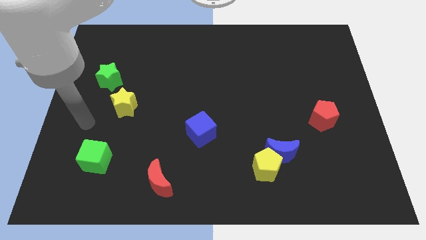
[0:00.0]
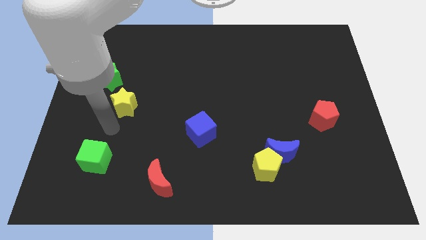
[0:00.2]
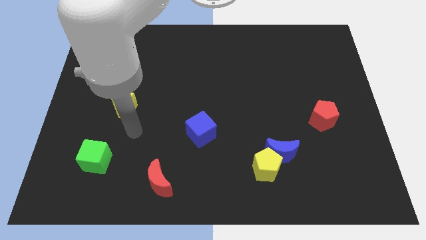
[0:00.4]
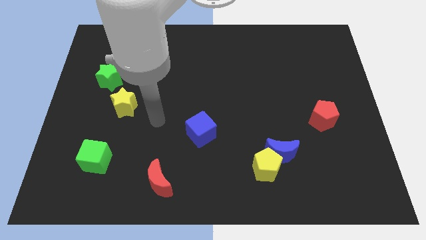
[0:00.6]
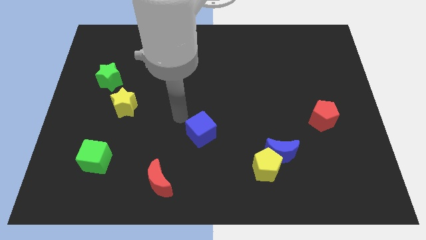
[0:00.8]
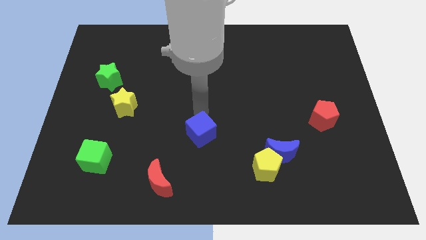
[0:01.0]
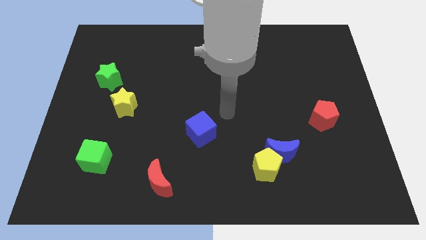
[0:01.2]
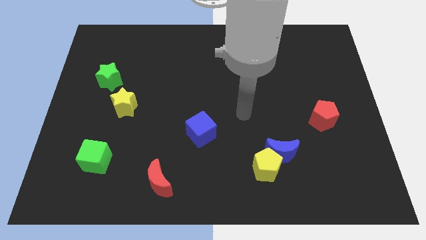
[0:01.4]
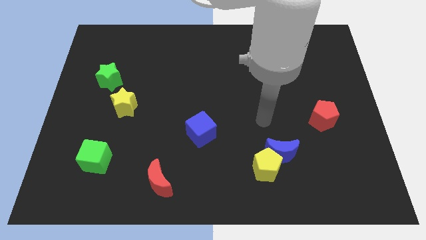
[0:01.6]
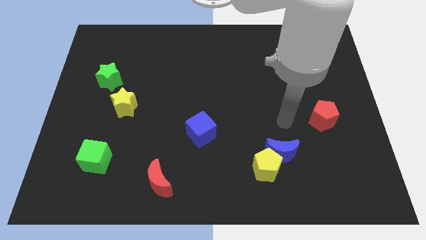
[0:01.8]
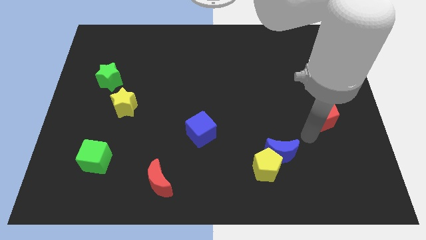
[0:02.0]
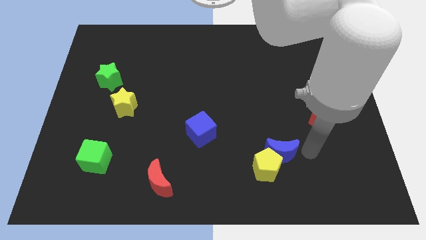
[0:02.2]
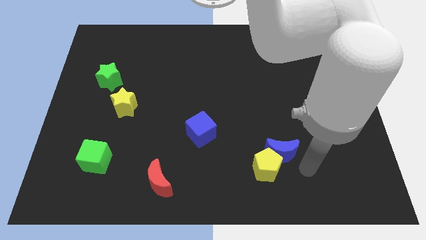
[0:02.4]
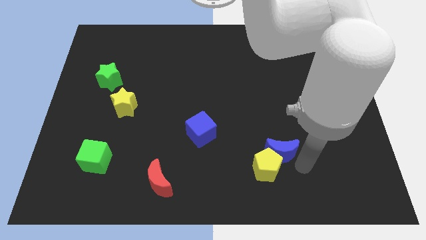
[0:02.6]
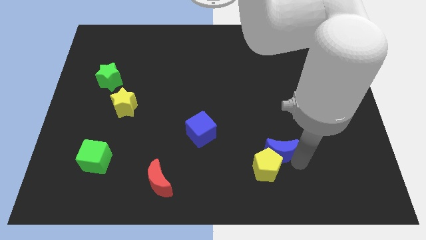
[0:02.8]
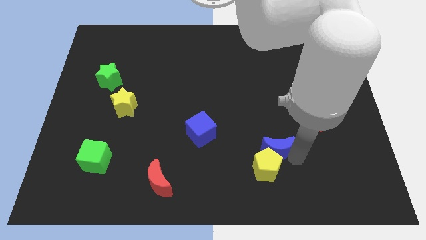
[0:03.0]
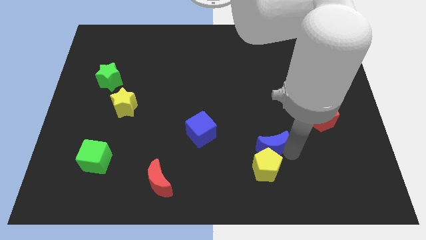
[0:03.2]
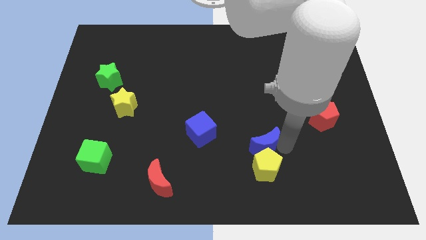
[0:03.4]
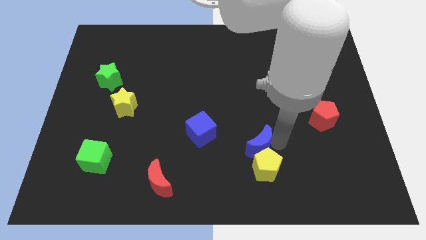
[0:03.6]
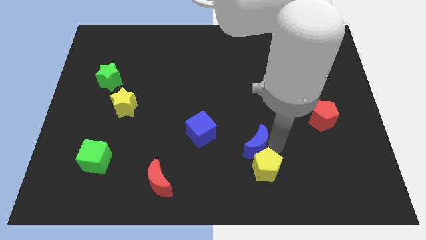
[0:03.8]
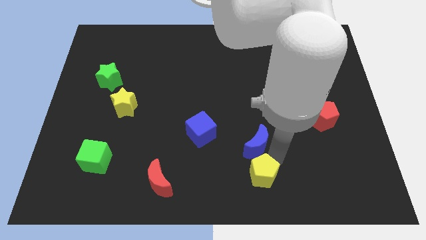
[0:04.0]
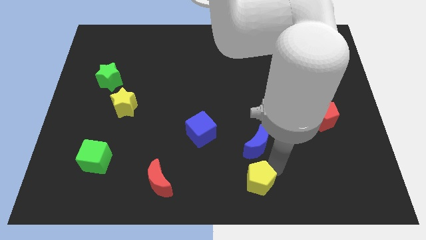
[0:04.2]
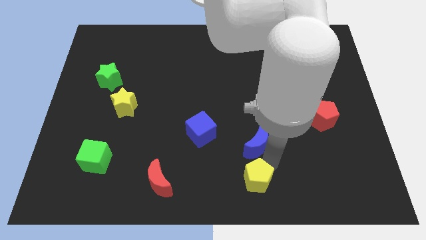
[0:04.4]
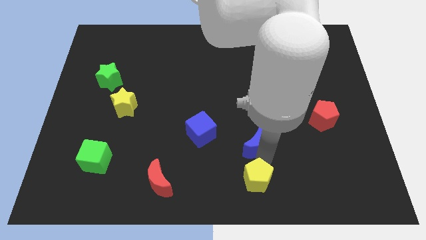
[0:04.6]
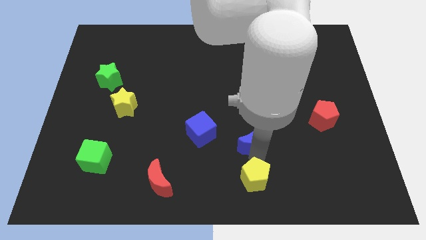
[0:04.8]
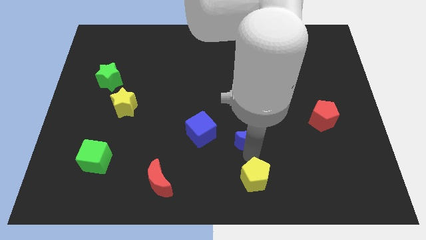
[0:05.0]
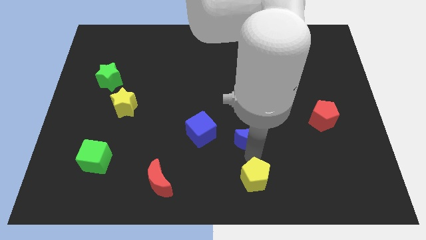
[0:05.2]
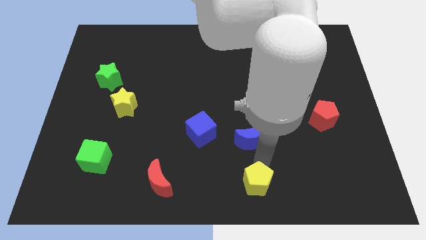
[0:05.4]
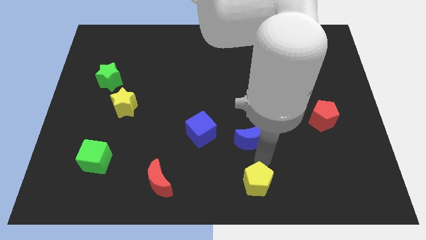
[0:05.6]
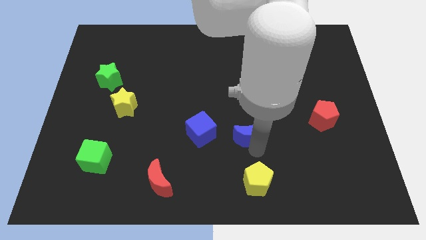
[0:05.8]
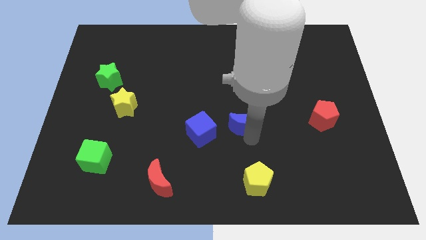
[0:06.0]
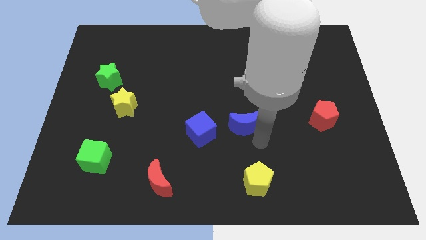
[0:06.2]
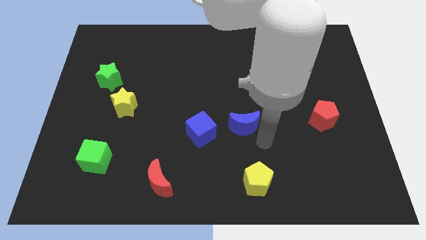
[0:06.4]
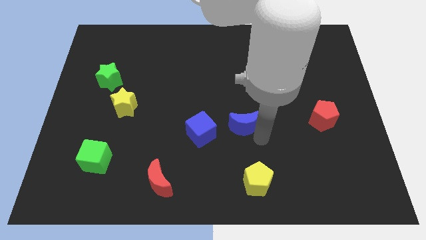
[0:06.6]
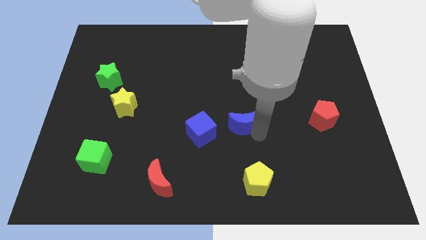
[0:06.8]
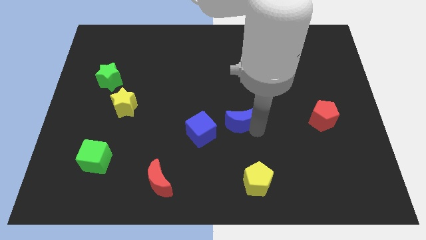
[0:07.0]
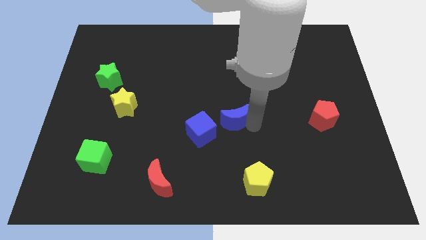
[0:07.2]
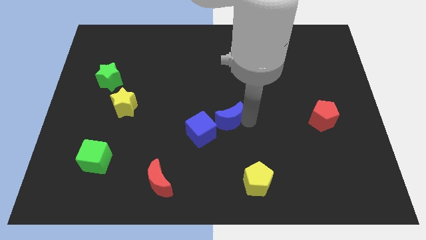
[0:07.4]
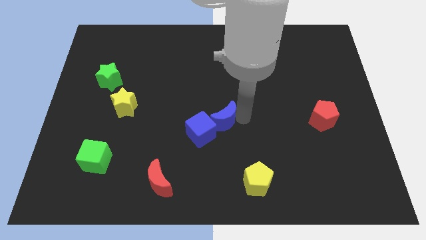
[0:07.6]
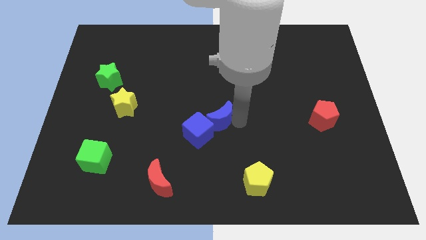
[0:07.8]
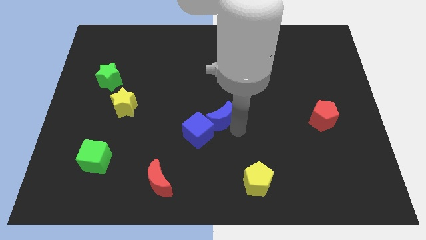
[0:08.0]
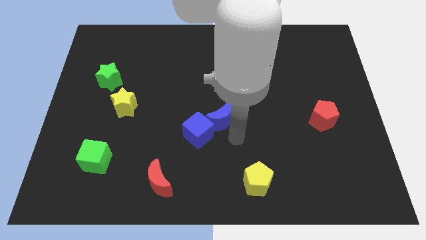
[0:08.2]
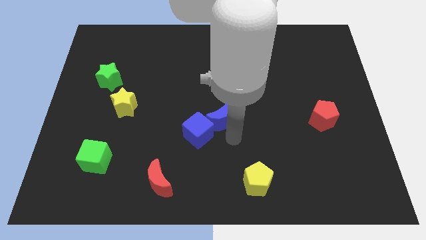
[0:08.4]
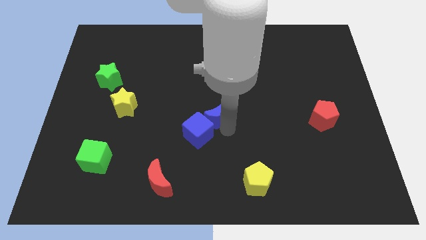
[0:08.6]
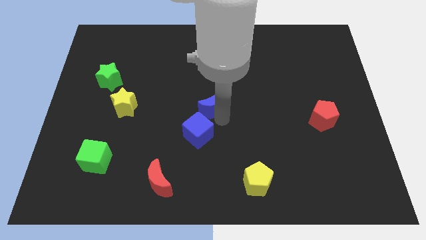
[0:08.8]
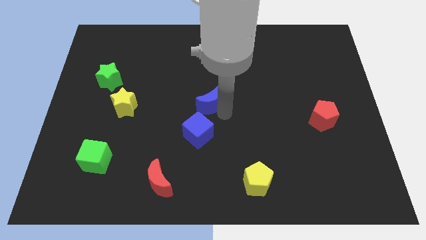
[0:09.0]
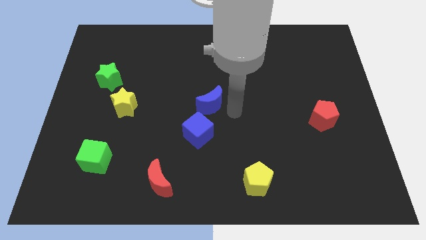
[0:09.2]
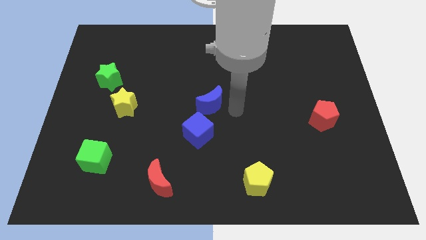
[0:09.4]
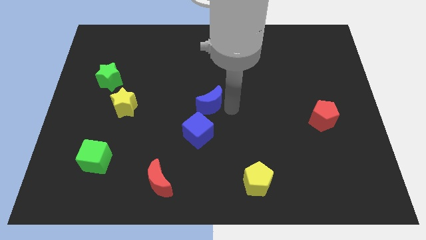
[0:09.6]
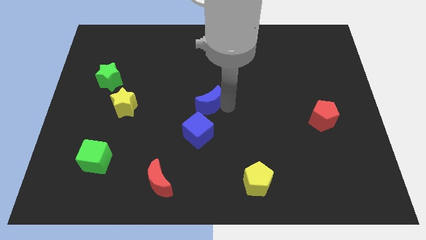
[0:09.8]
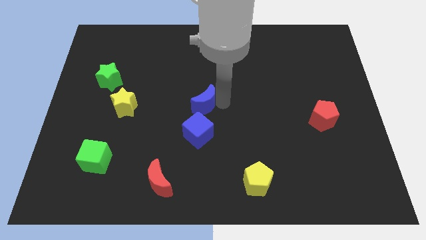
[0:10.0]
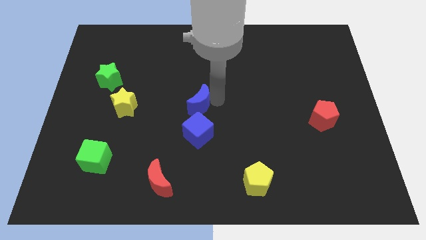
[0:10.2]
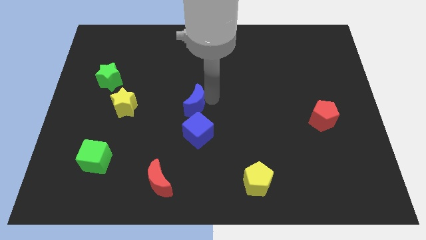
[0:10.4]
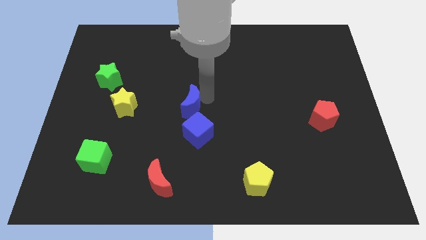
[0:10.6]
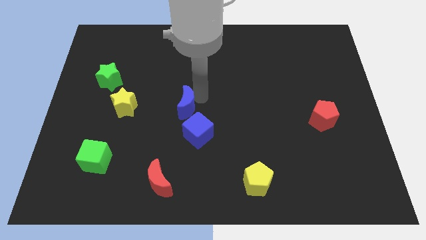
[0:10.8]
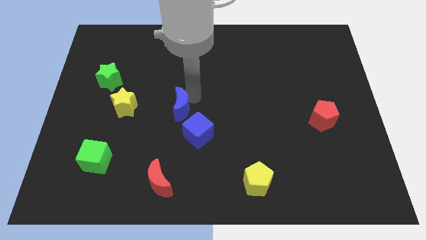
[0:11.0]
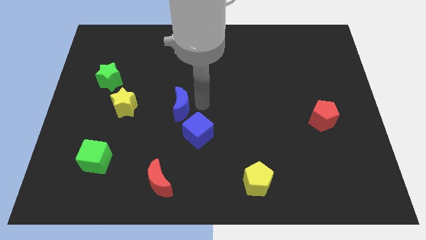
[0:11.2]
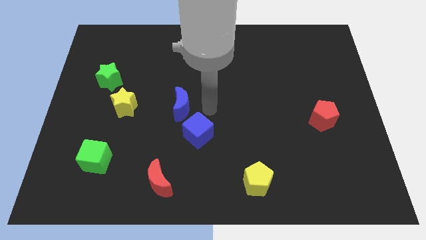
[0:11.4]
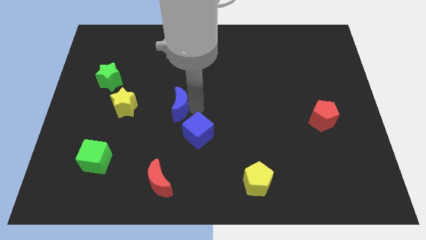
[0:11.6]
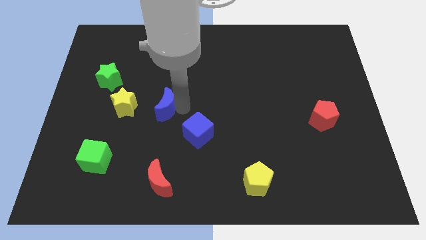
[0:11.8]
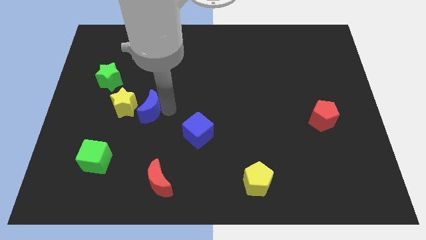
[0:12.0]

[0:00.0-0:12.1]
slide the blue moon close to the yellow star

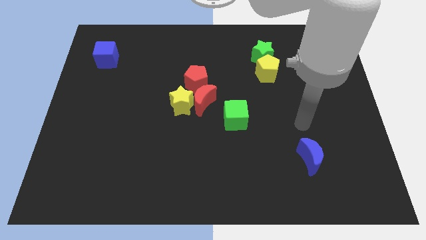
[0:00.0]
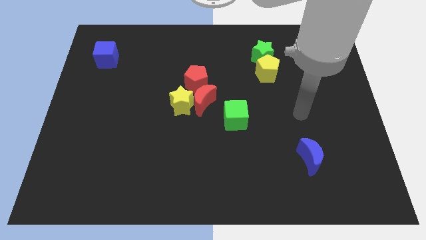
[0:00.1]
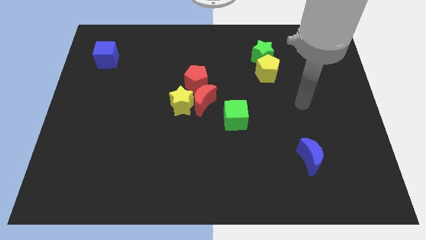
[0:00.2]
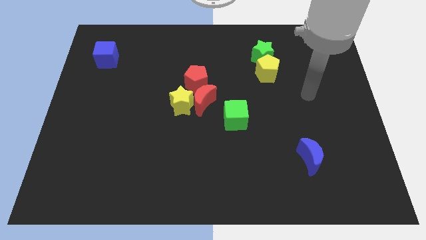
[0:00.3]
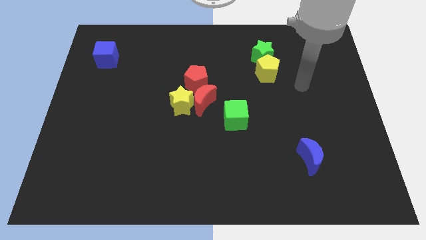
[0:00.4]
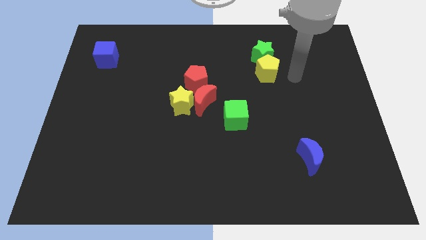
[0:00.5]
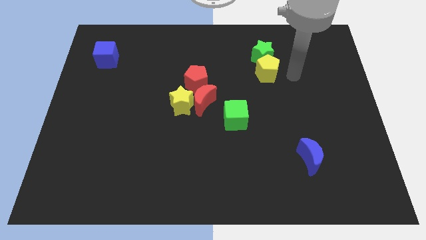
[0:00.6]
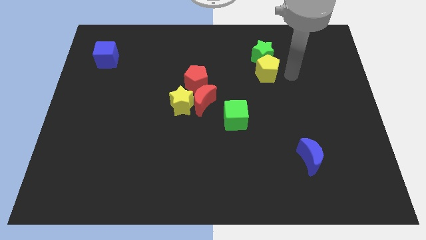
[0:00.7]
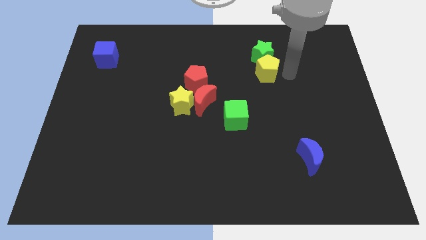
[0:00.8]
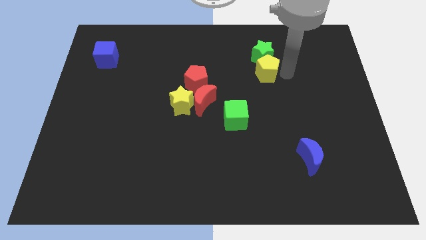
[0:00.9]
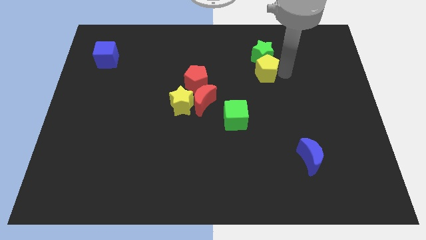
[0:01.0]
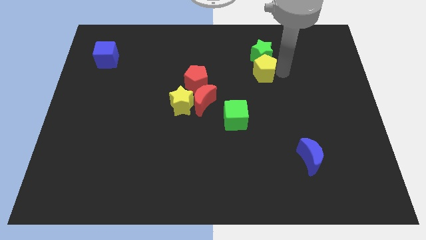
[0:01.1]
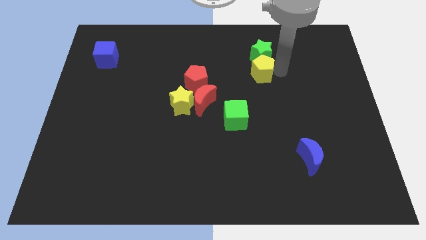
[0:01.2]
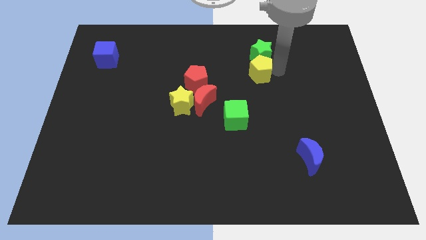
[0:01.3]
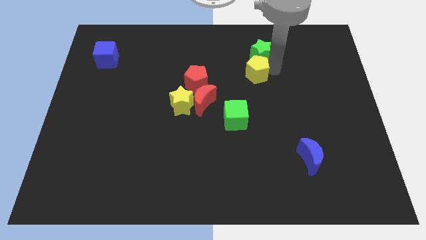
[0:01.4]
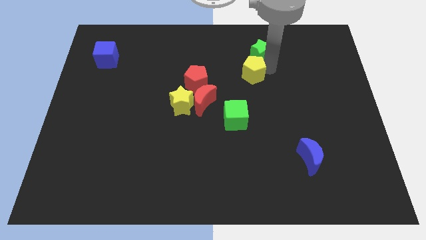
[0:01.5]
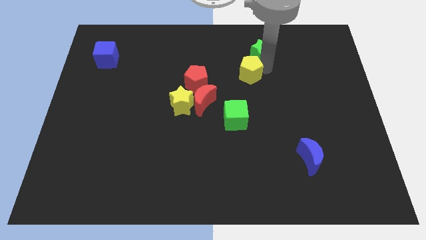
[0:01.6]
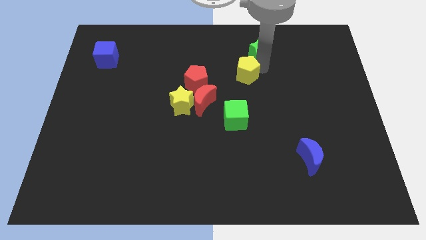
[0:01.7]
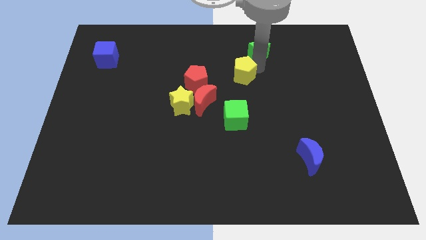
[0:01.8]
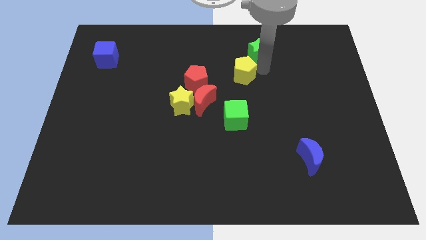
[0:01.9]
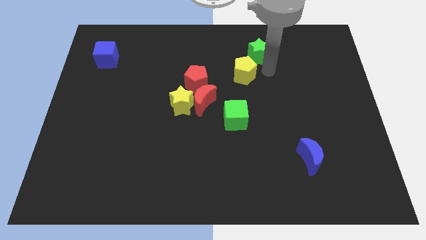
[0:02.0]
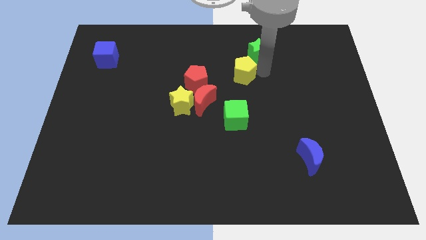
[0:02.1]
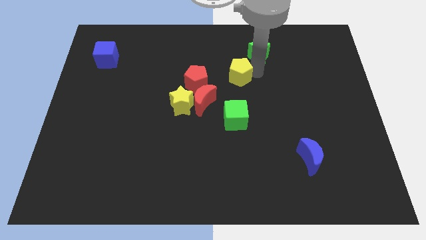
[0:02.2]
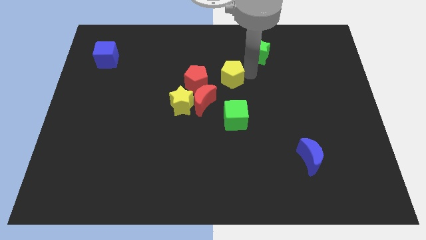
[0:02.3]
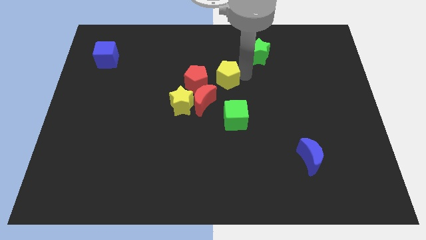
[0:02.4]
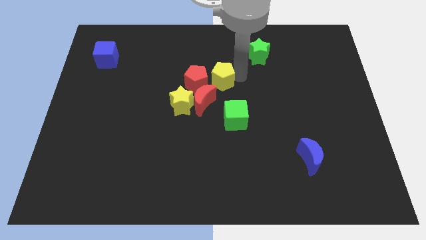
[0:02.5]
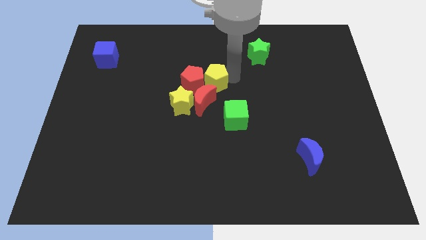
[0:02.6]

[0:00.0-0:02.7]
move the yellow pentagon close to the red pentagon
